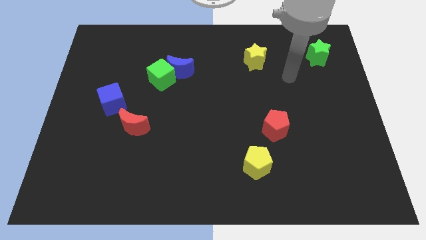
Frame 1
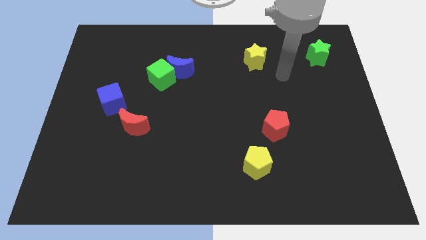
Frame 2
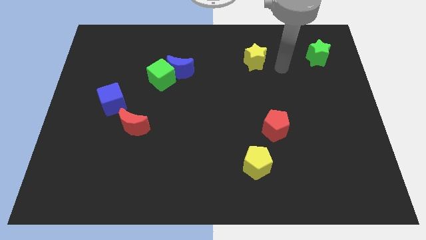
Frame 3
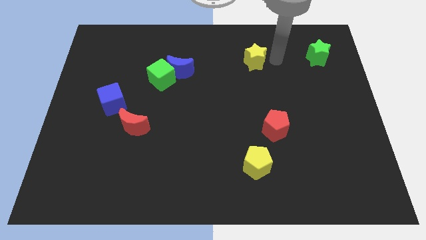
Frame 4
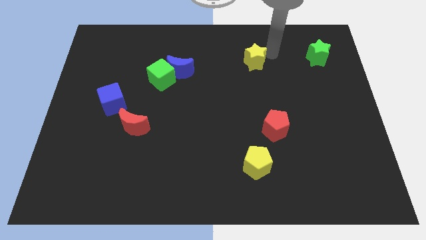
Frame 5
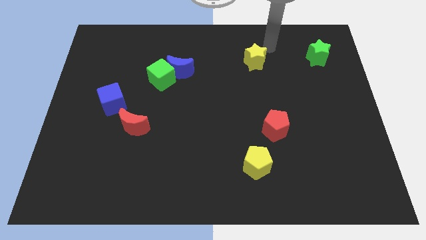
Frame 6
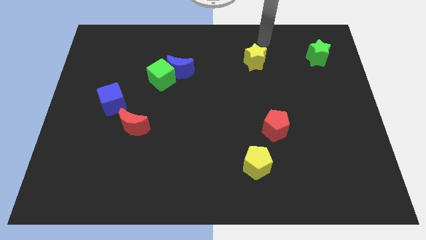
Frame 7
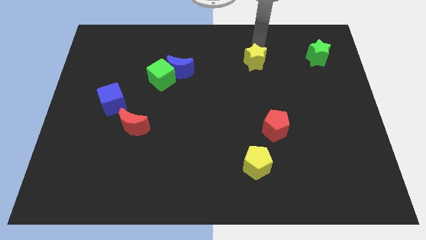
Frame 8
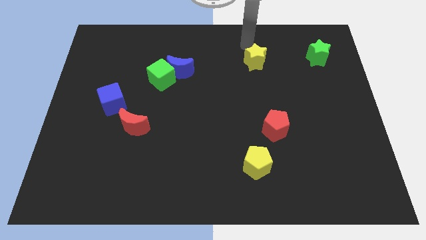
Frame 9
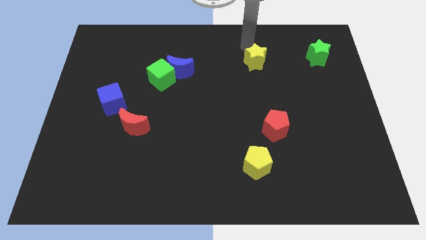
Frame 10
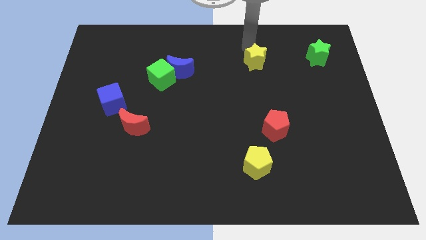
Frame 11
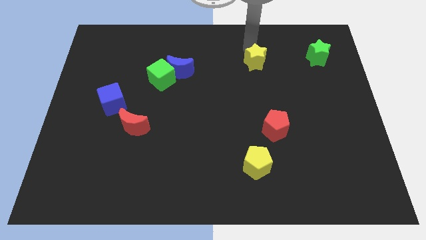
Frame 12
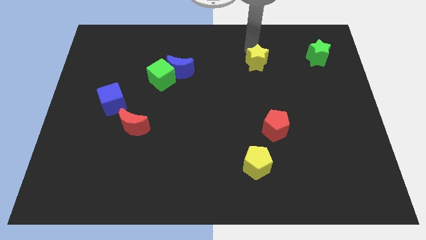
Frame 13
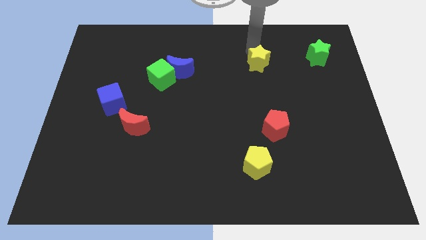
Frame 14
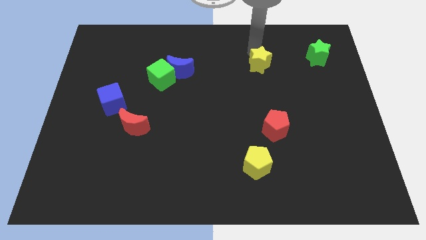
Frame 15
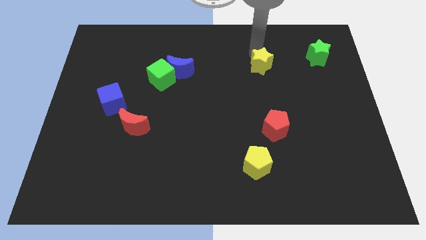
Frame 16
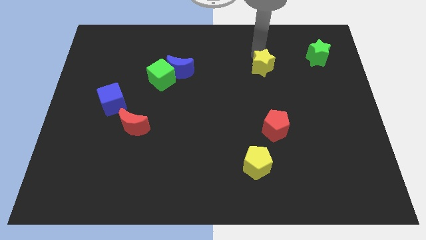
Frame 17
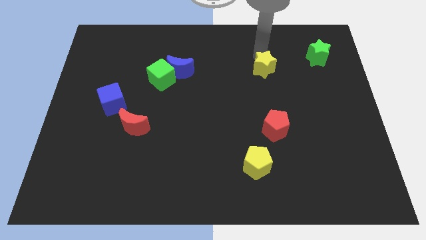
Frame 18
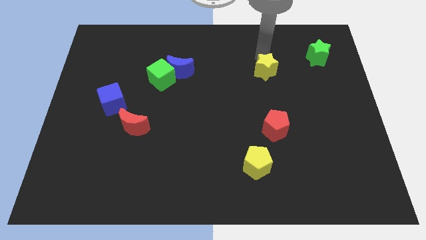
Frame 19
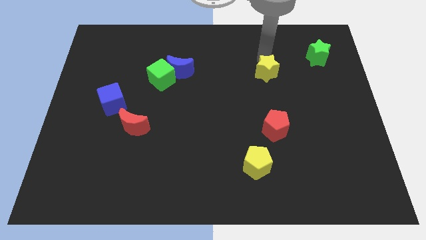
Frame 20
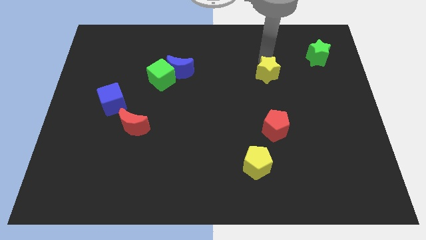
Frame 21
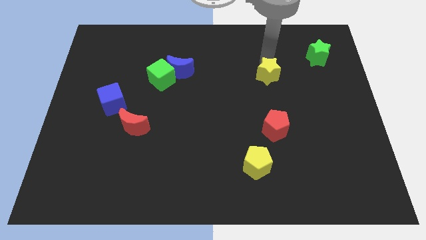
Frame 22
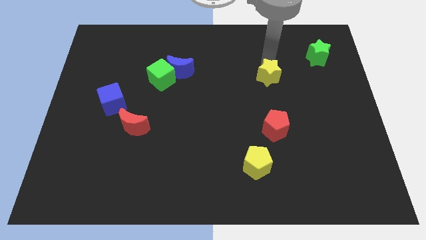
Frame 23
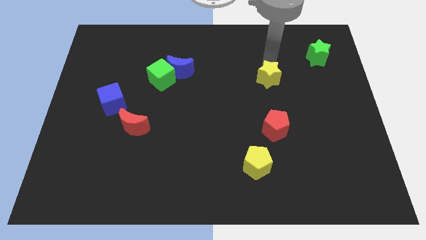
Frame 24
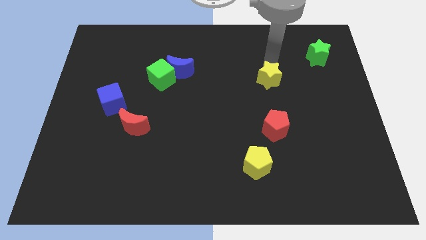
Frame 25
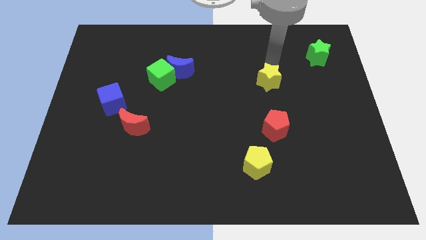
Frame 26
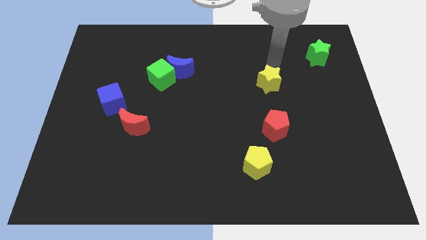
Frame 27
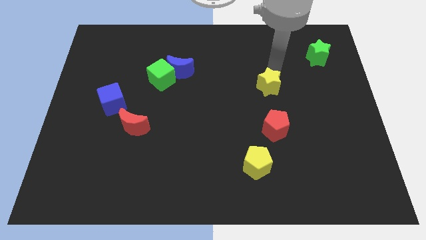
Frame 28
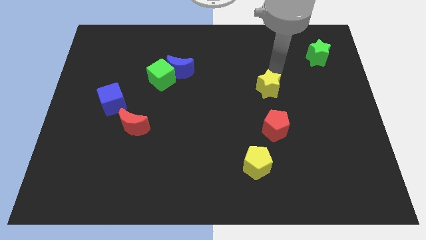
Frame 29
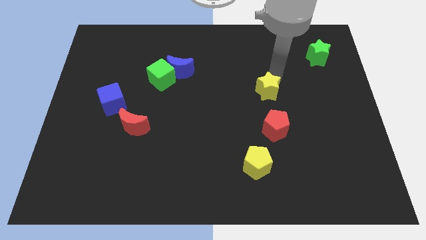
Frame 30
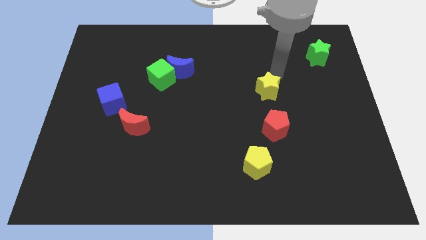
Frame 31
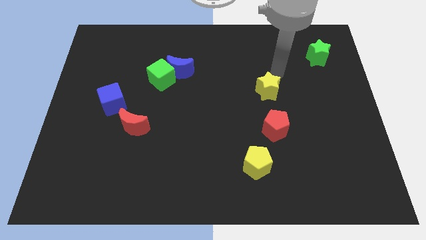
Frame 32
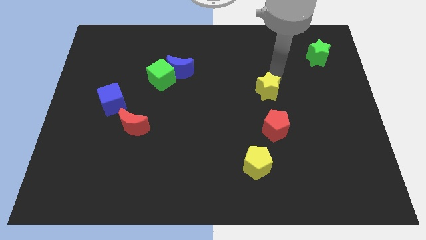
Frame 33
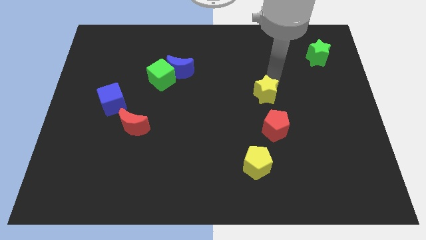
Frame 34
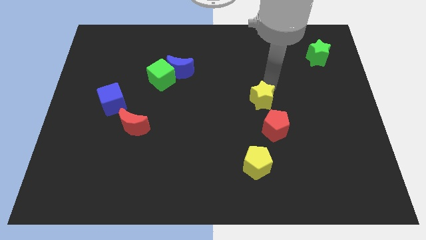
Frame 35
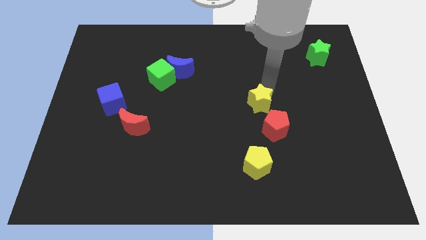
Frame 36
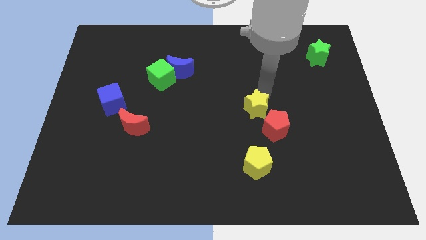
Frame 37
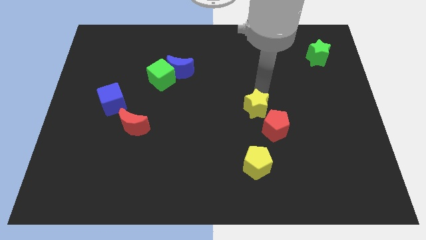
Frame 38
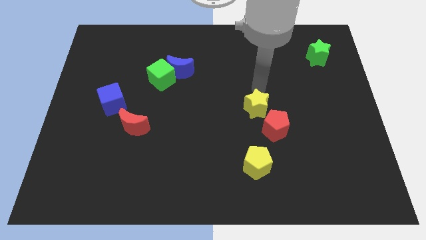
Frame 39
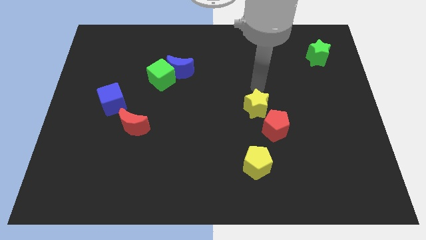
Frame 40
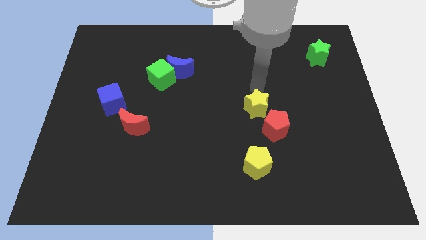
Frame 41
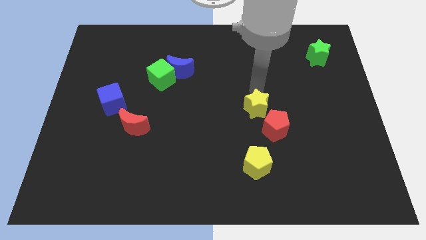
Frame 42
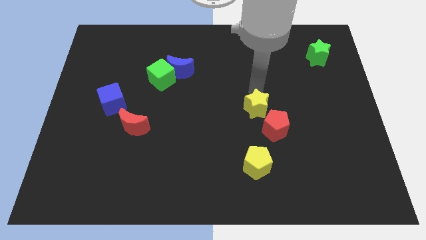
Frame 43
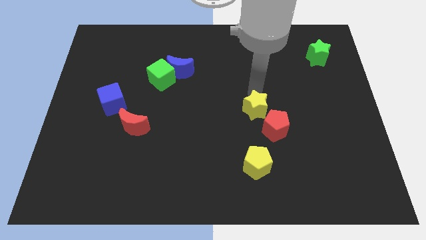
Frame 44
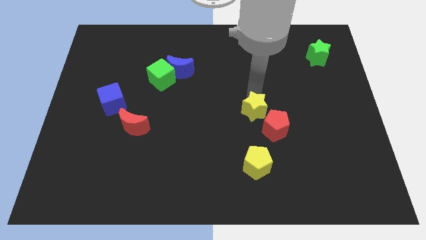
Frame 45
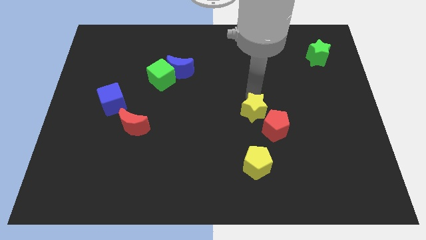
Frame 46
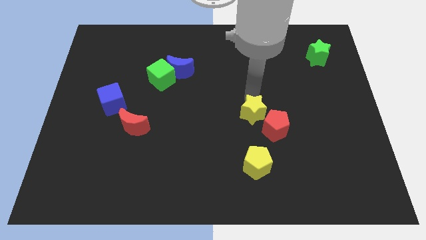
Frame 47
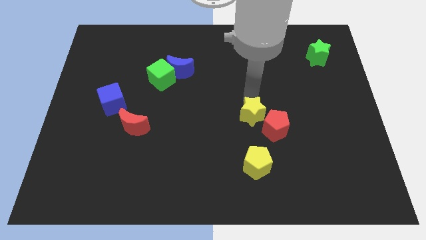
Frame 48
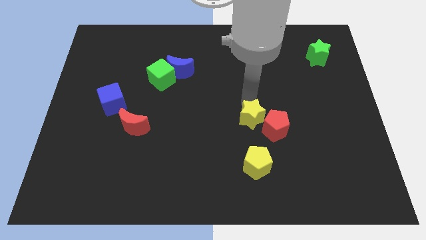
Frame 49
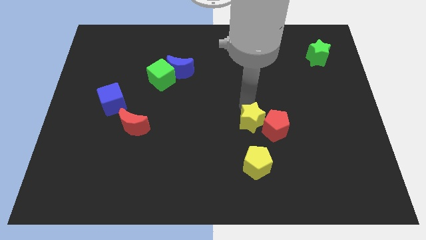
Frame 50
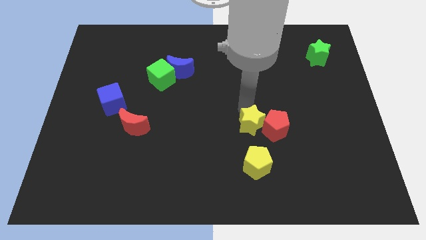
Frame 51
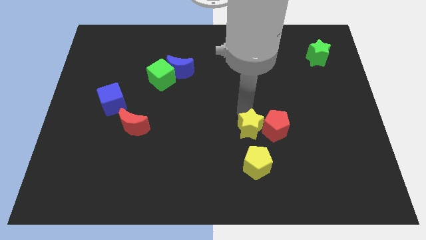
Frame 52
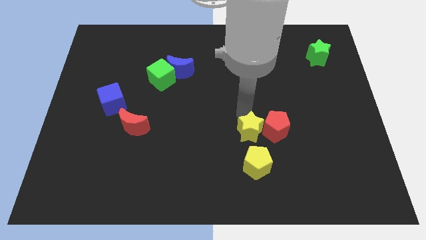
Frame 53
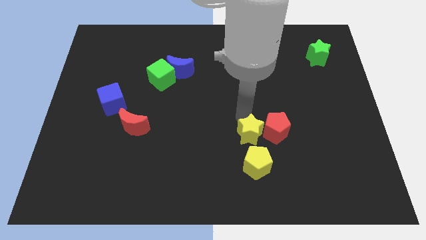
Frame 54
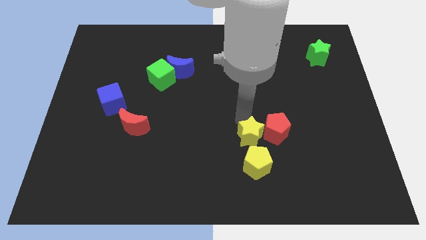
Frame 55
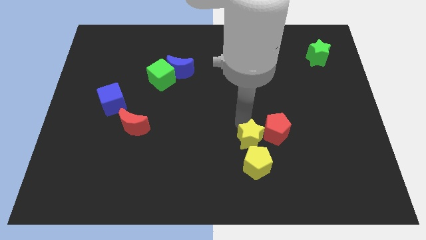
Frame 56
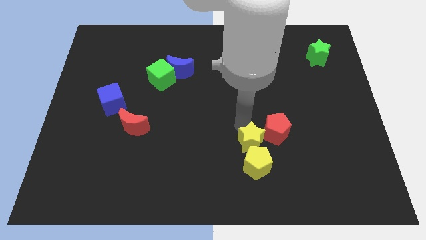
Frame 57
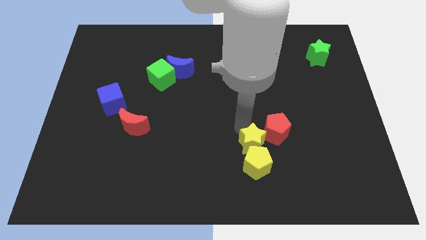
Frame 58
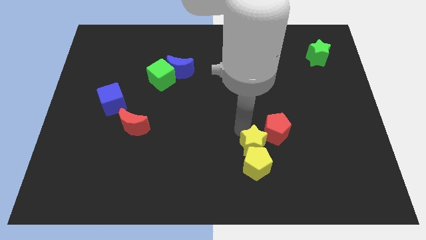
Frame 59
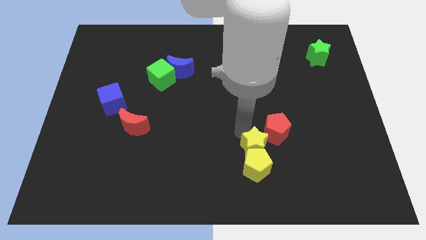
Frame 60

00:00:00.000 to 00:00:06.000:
move the yellow star to the bottom of the red pentagon

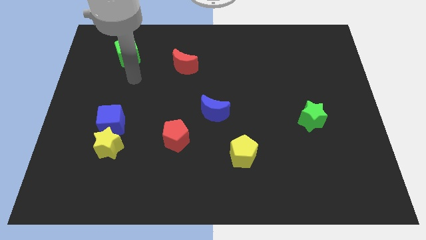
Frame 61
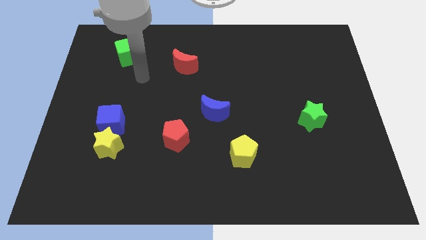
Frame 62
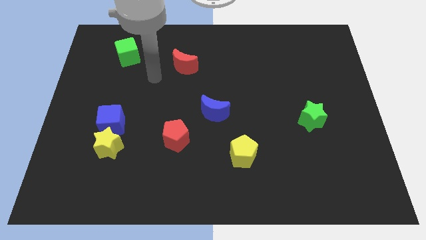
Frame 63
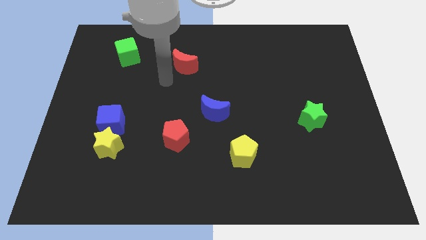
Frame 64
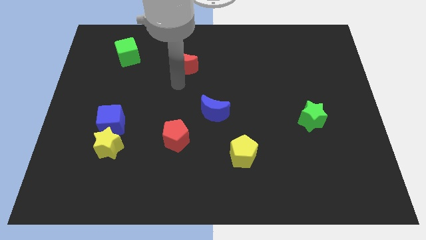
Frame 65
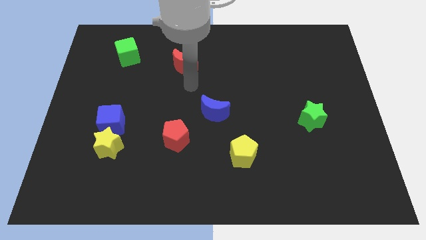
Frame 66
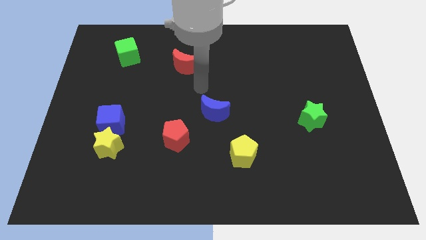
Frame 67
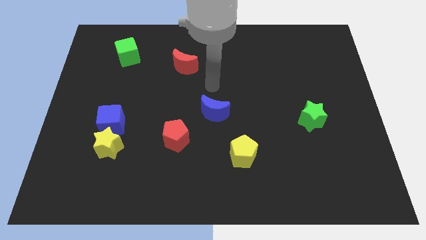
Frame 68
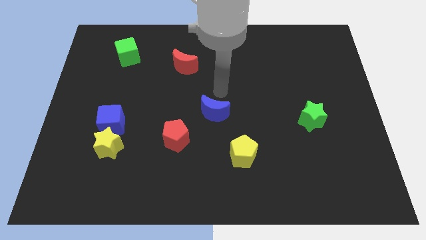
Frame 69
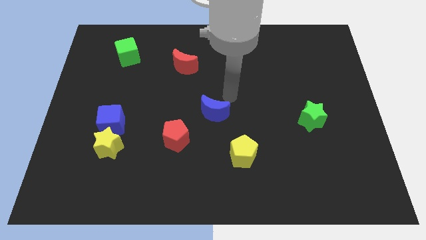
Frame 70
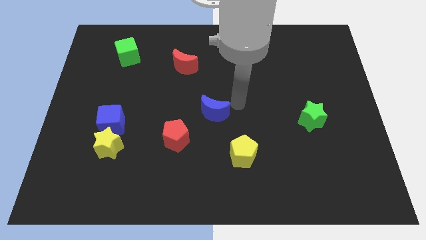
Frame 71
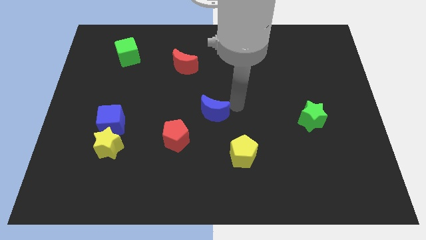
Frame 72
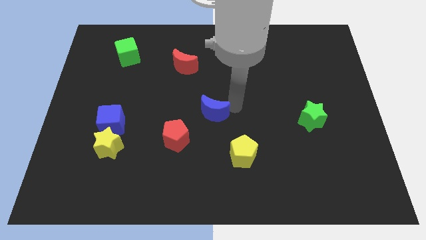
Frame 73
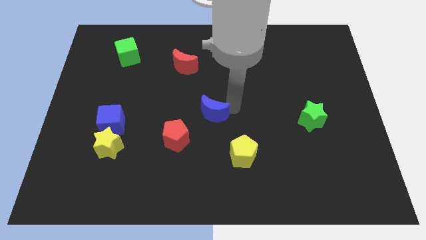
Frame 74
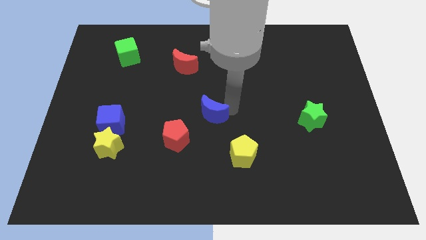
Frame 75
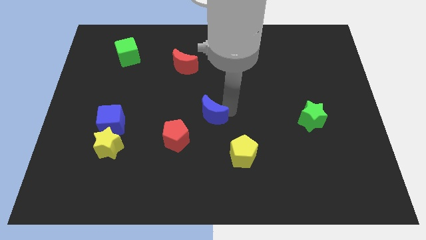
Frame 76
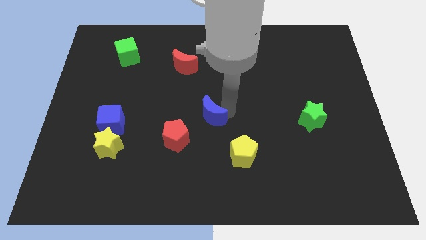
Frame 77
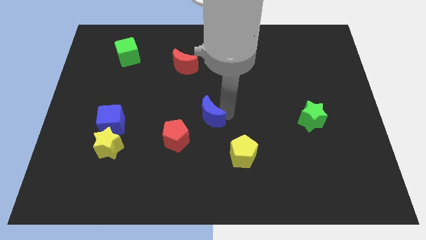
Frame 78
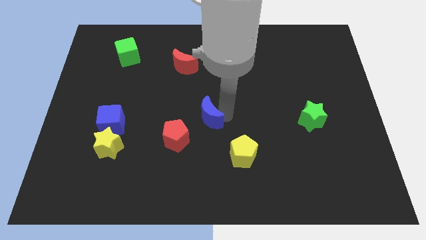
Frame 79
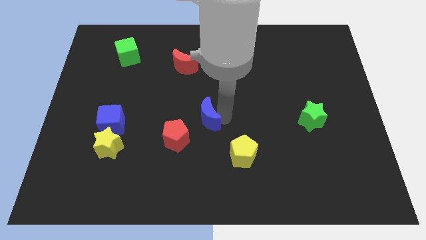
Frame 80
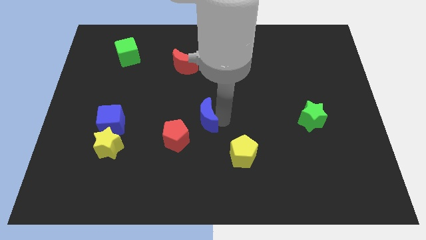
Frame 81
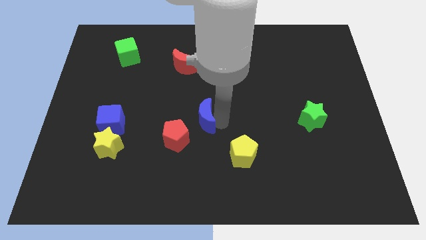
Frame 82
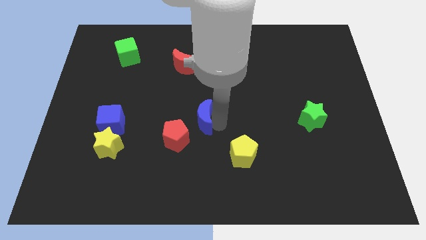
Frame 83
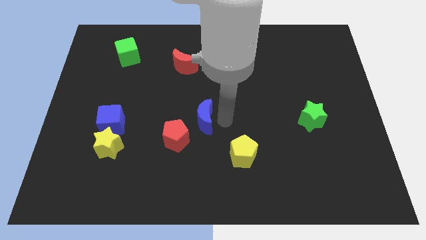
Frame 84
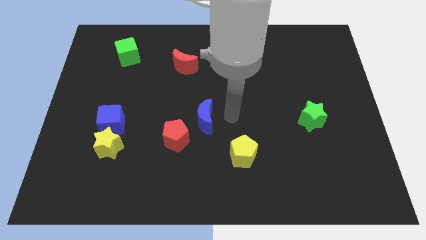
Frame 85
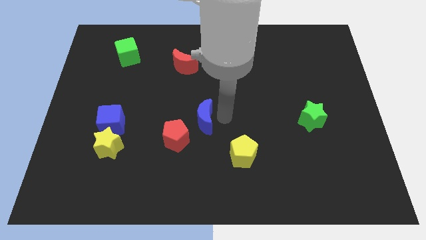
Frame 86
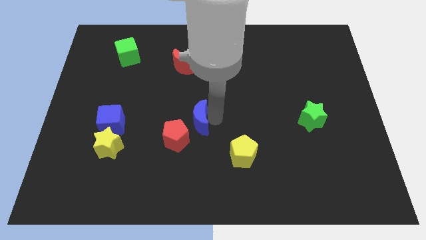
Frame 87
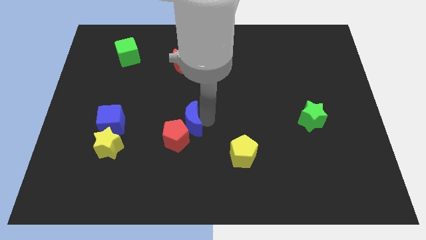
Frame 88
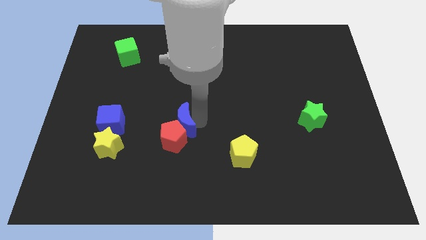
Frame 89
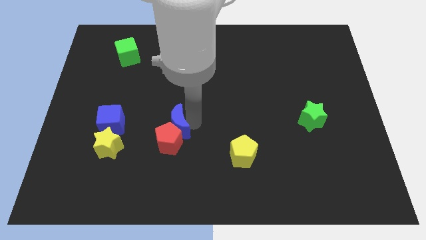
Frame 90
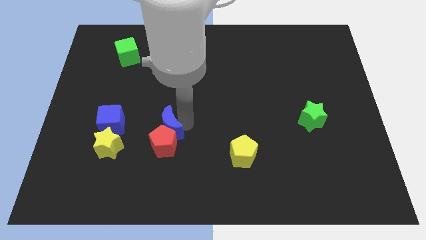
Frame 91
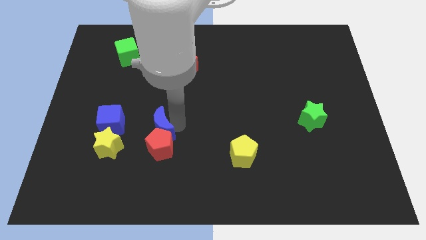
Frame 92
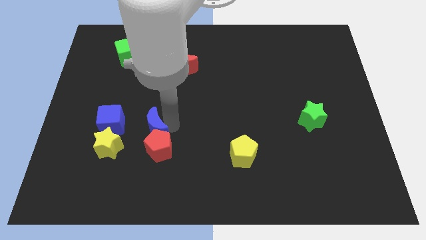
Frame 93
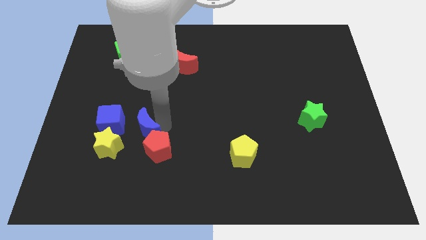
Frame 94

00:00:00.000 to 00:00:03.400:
push the blue moon diagonally down and to the right of the blue cube
